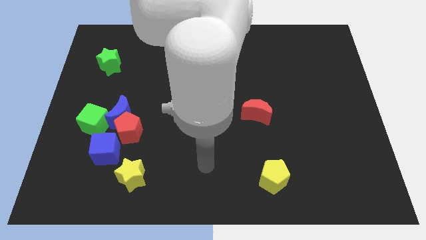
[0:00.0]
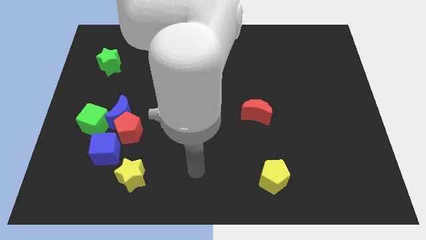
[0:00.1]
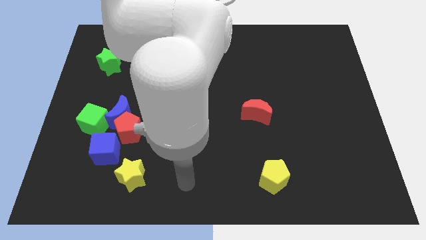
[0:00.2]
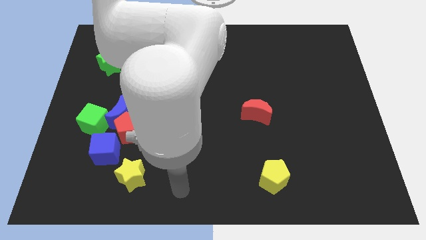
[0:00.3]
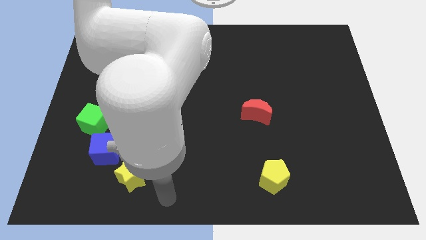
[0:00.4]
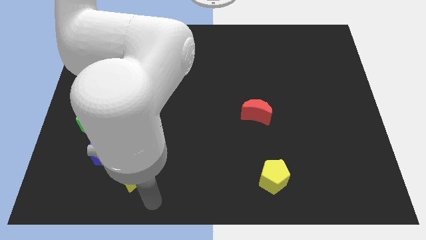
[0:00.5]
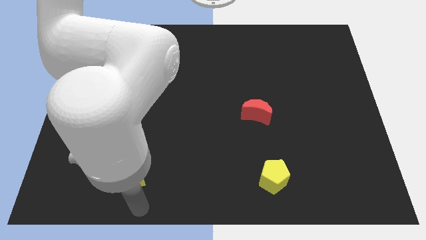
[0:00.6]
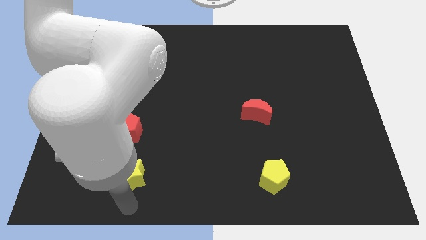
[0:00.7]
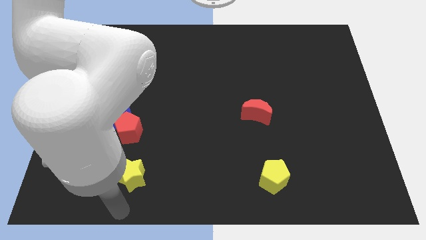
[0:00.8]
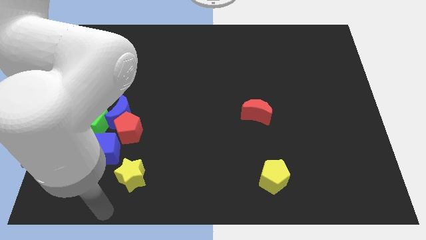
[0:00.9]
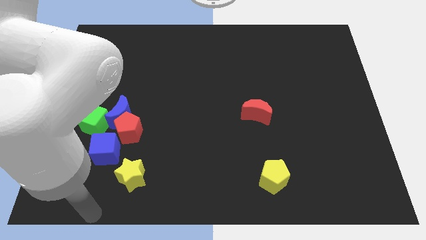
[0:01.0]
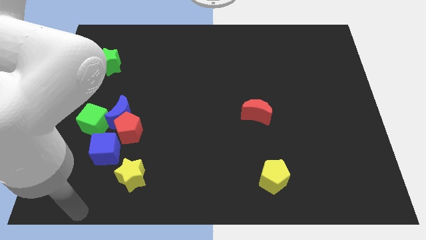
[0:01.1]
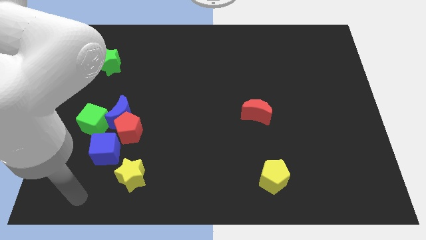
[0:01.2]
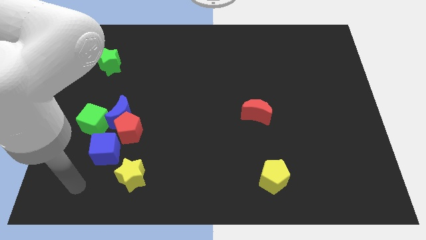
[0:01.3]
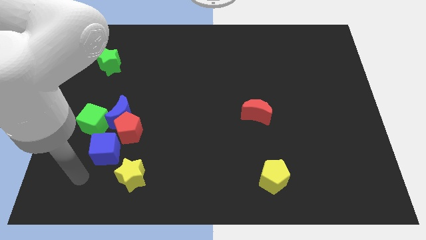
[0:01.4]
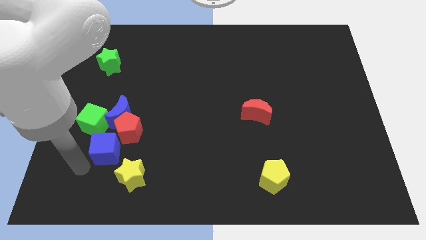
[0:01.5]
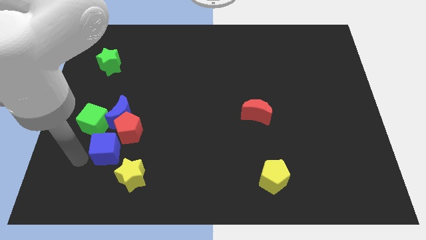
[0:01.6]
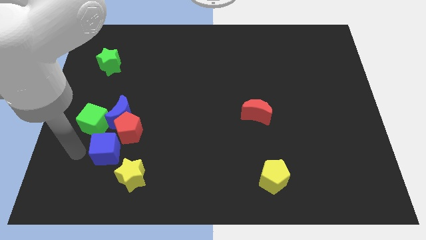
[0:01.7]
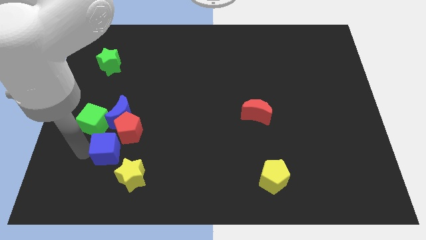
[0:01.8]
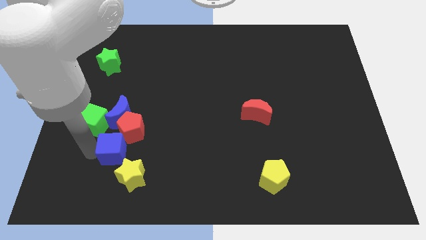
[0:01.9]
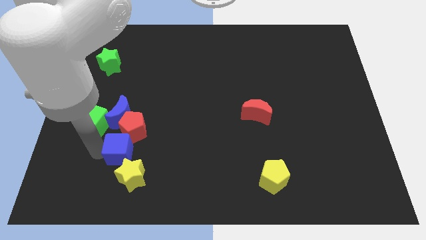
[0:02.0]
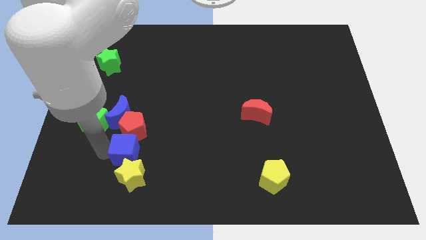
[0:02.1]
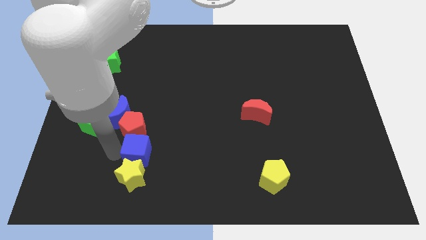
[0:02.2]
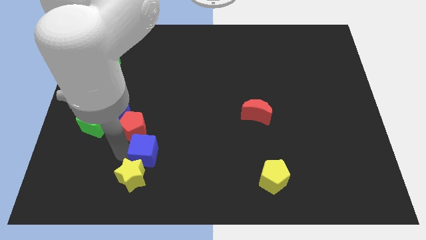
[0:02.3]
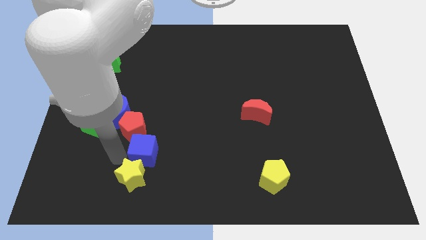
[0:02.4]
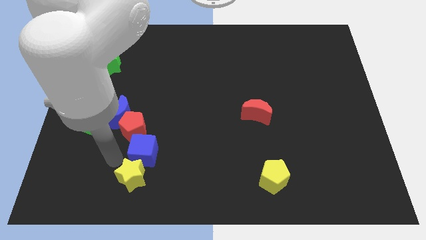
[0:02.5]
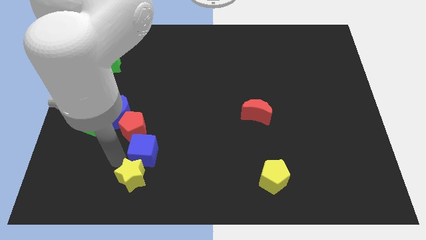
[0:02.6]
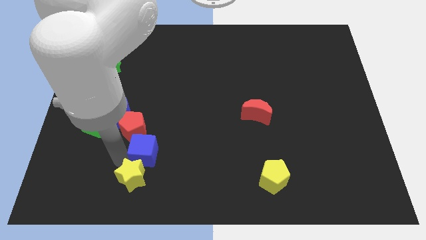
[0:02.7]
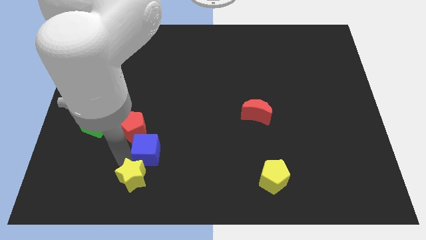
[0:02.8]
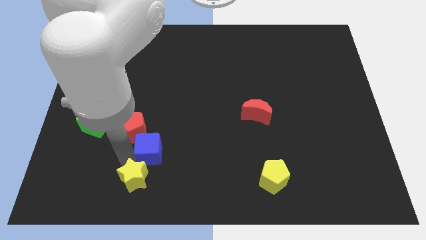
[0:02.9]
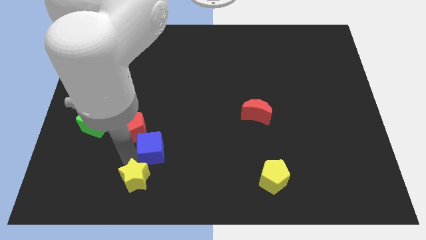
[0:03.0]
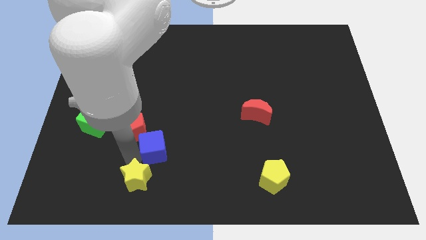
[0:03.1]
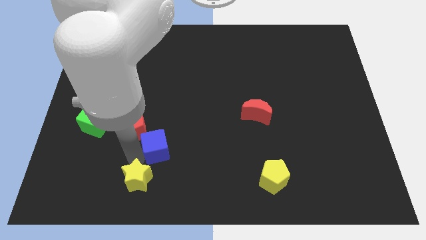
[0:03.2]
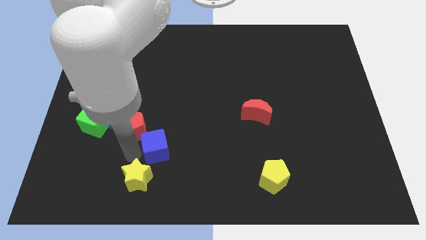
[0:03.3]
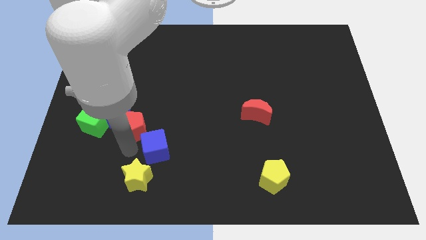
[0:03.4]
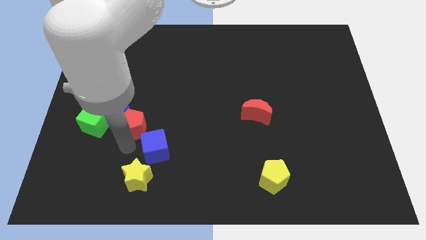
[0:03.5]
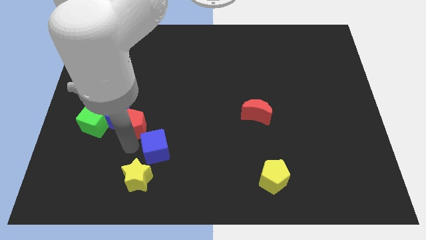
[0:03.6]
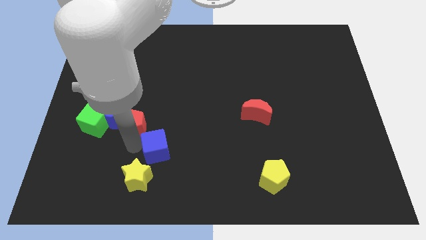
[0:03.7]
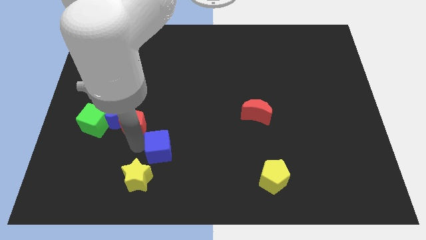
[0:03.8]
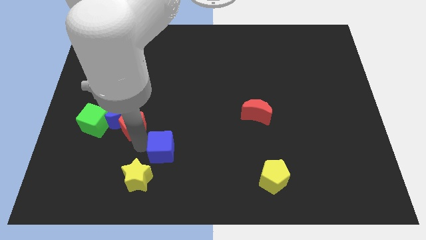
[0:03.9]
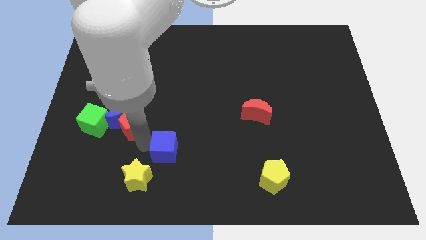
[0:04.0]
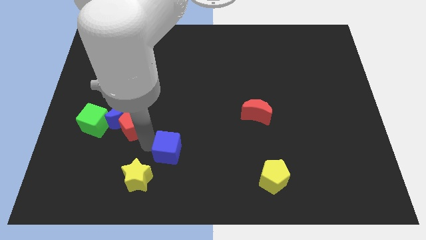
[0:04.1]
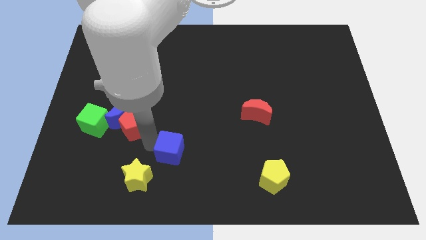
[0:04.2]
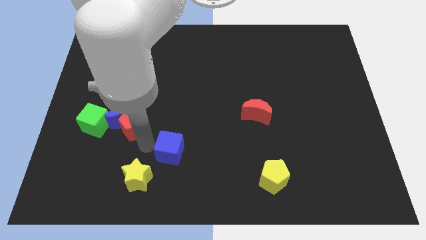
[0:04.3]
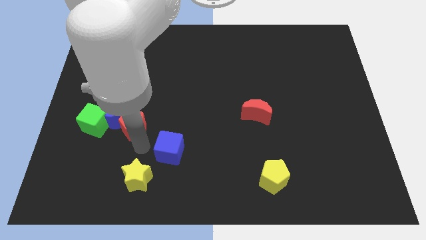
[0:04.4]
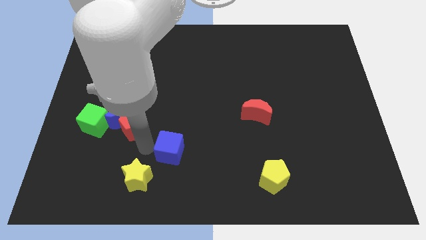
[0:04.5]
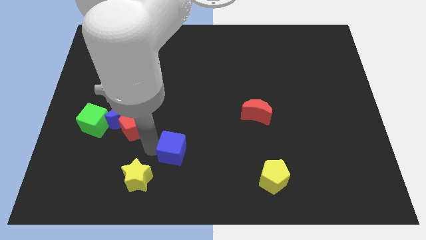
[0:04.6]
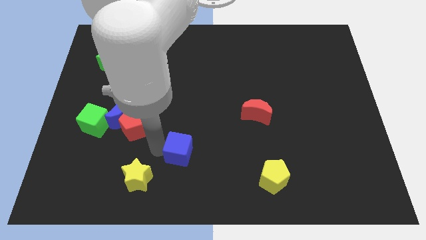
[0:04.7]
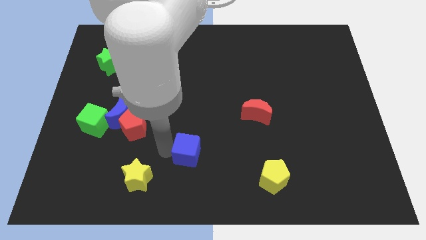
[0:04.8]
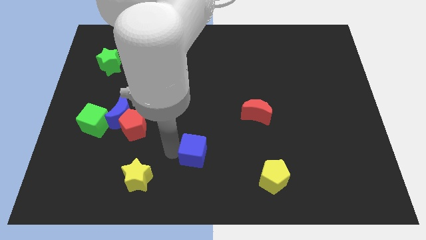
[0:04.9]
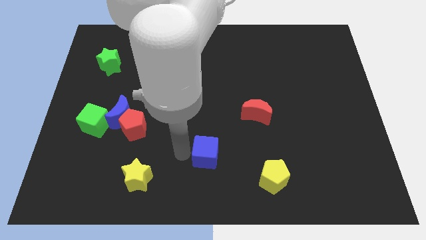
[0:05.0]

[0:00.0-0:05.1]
move the blue cube to the right

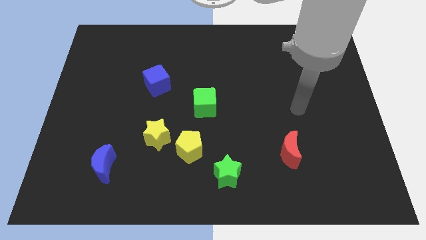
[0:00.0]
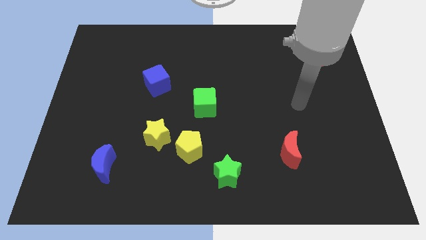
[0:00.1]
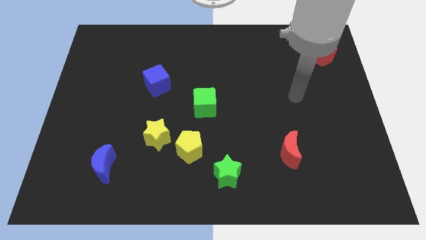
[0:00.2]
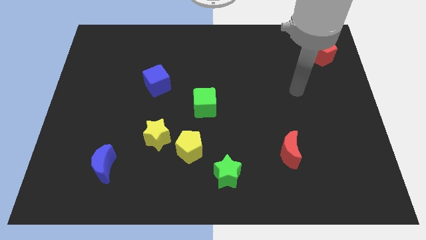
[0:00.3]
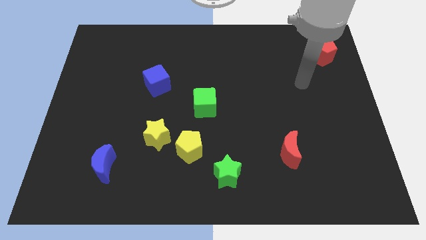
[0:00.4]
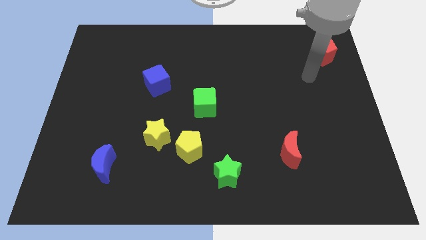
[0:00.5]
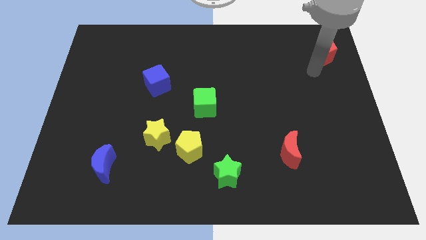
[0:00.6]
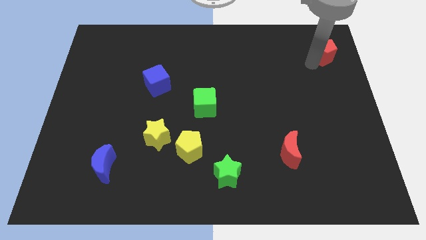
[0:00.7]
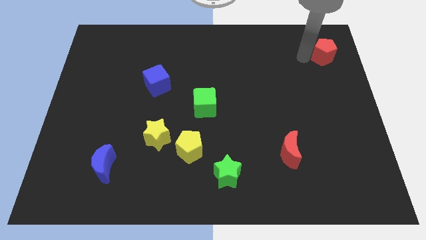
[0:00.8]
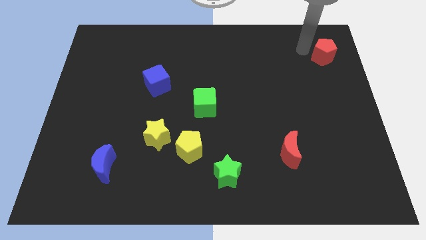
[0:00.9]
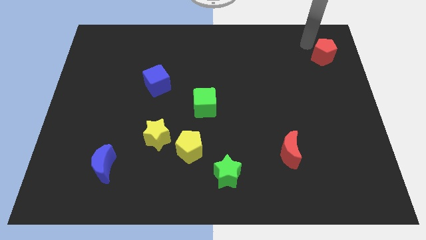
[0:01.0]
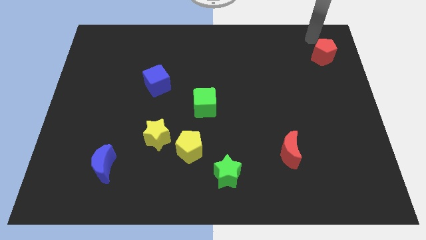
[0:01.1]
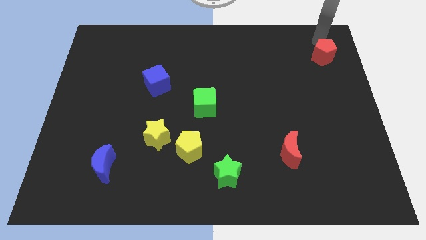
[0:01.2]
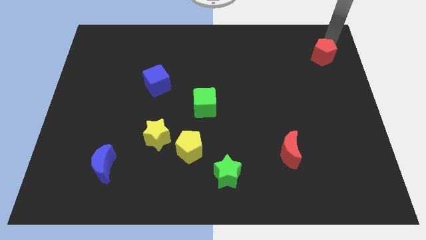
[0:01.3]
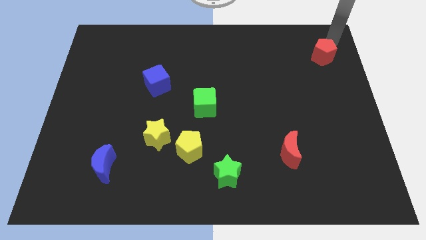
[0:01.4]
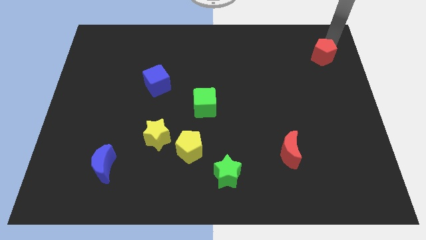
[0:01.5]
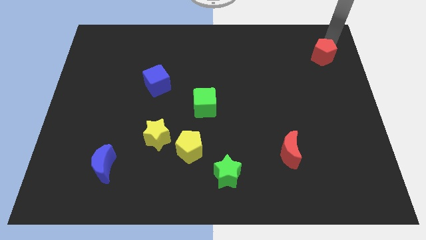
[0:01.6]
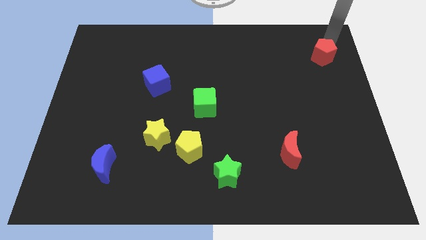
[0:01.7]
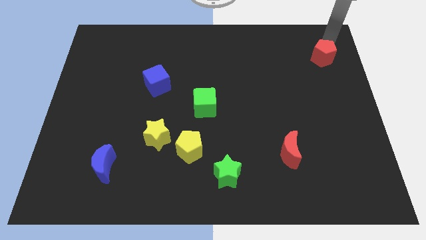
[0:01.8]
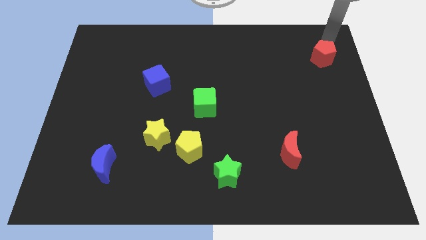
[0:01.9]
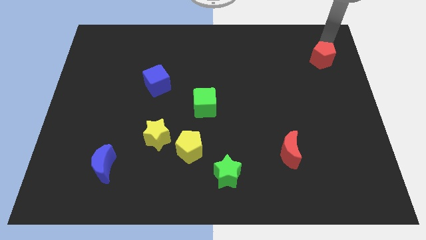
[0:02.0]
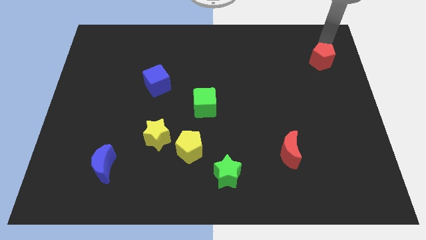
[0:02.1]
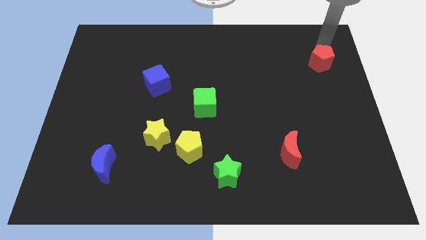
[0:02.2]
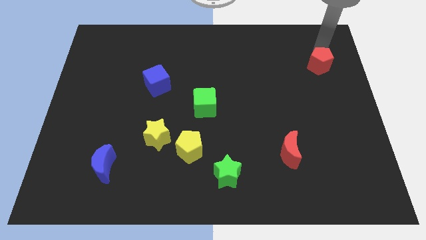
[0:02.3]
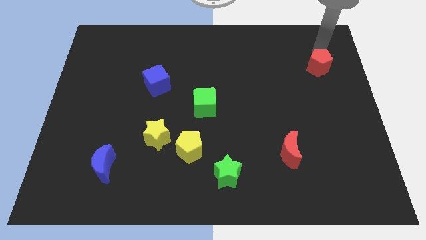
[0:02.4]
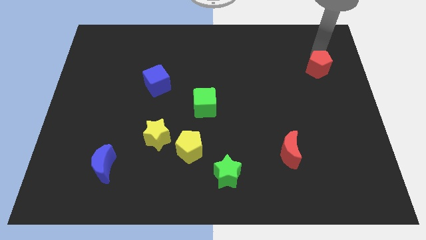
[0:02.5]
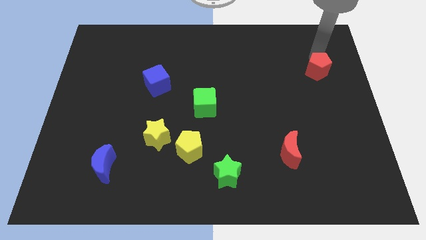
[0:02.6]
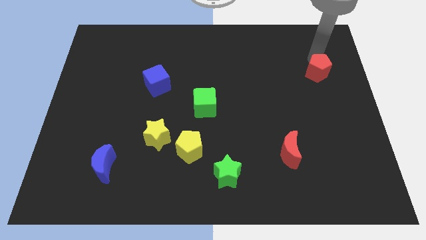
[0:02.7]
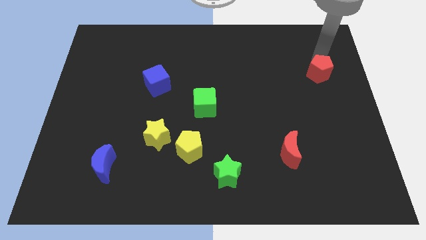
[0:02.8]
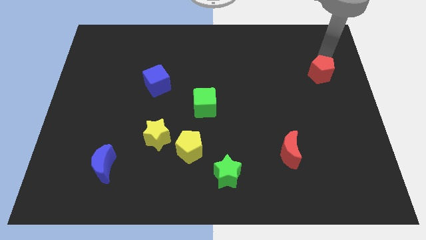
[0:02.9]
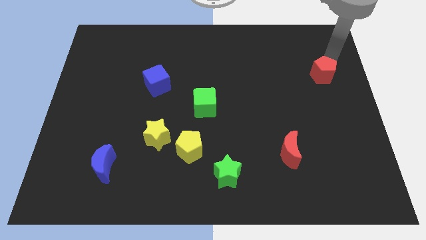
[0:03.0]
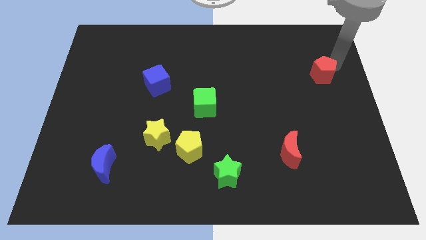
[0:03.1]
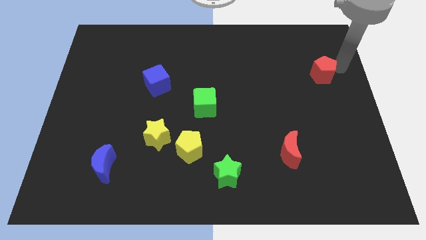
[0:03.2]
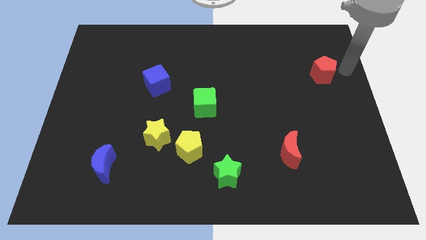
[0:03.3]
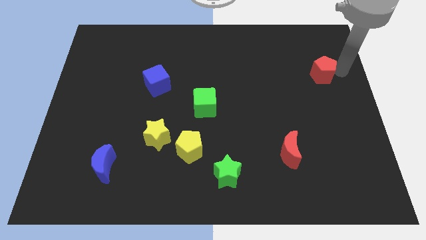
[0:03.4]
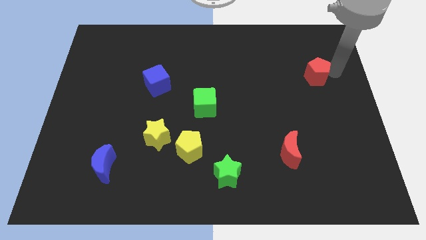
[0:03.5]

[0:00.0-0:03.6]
push the red pentagon a bit downwards and to the left diagonally
